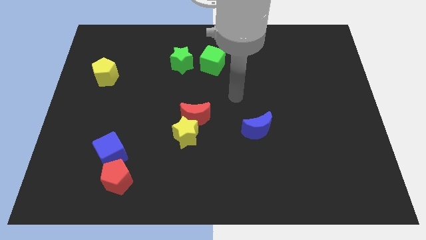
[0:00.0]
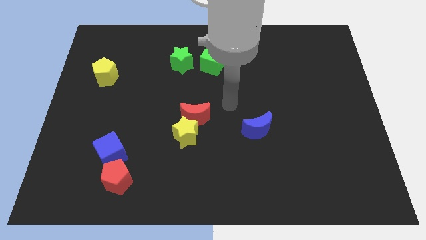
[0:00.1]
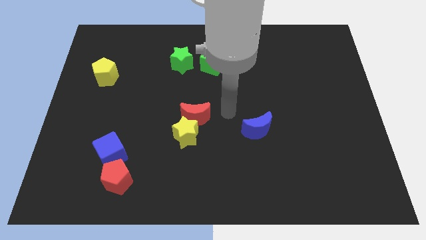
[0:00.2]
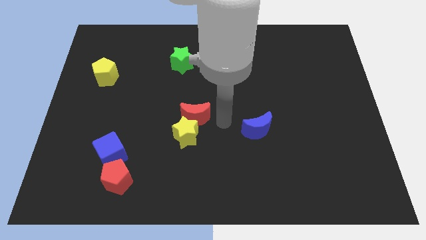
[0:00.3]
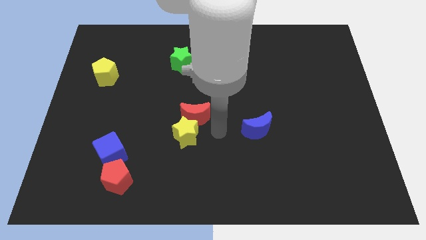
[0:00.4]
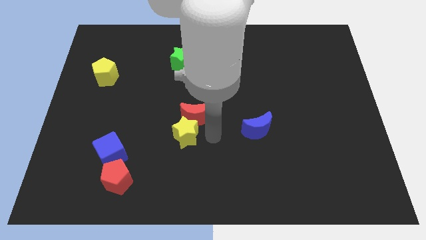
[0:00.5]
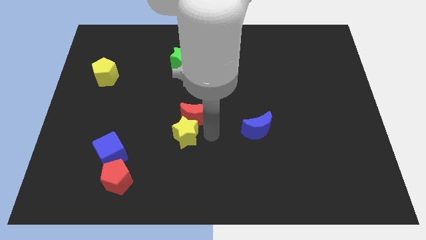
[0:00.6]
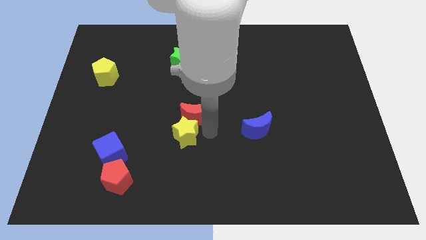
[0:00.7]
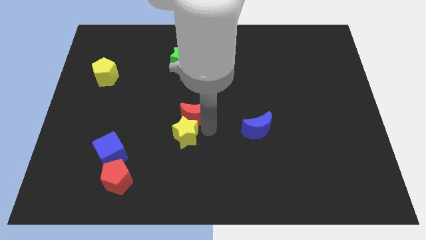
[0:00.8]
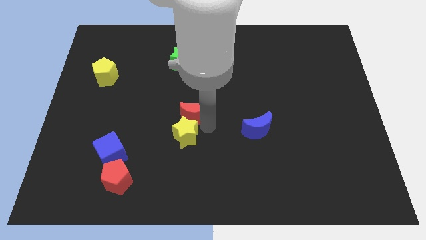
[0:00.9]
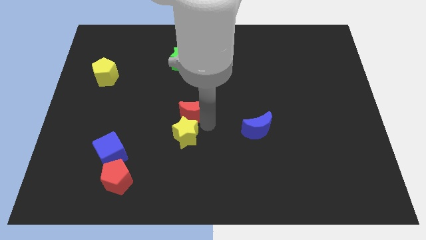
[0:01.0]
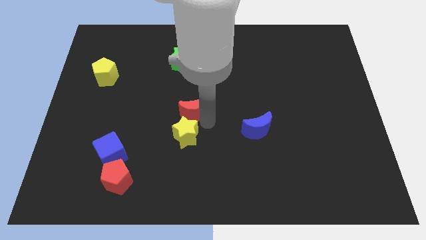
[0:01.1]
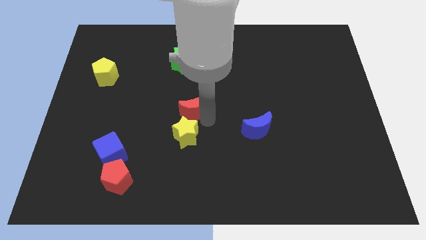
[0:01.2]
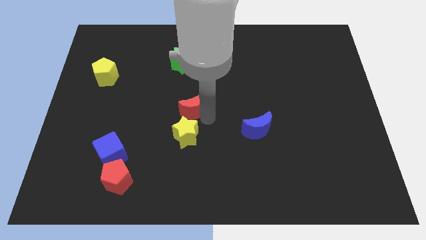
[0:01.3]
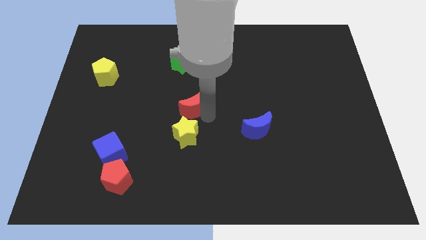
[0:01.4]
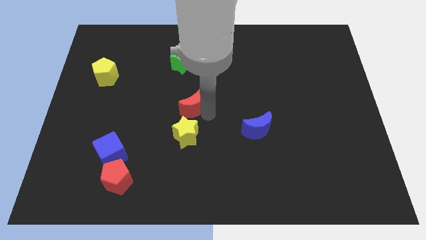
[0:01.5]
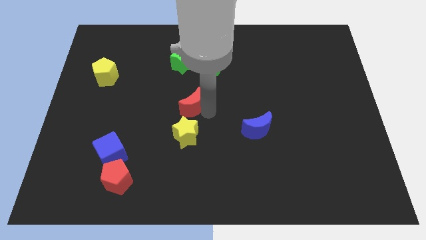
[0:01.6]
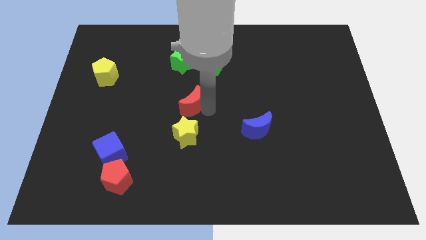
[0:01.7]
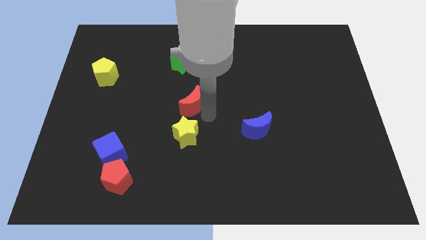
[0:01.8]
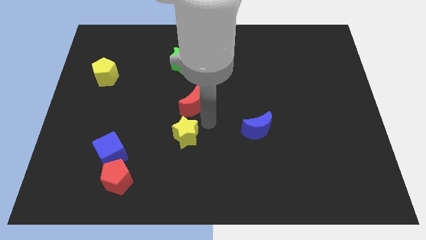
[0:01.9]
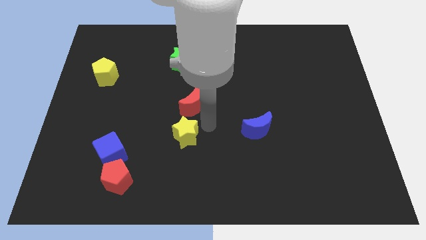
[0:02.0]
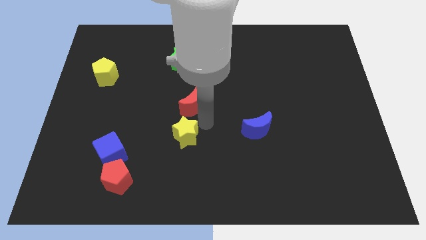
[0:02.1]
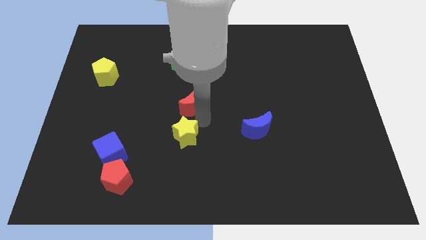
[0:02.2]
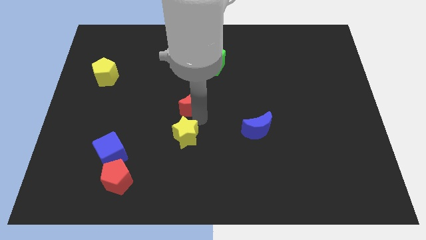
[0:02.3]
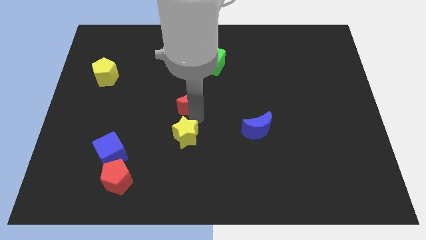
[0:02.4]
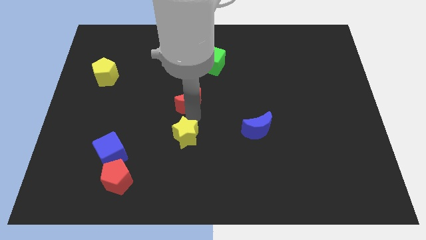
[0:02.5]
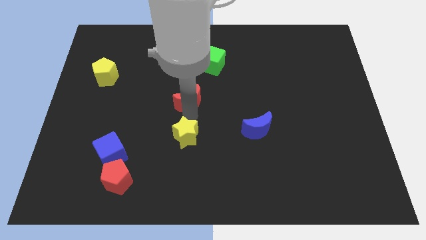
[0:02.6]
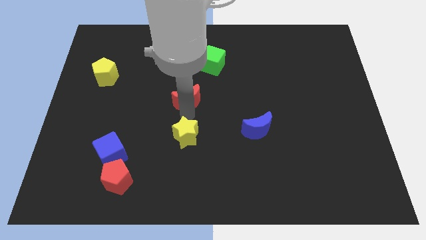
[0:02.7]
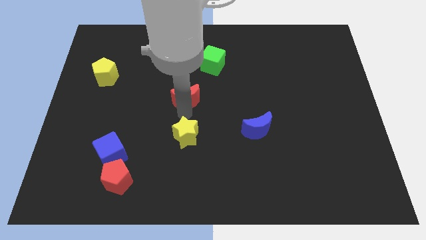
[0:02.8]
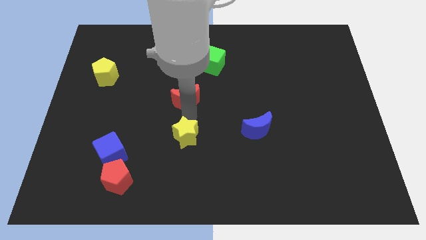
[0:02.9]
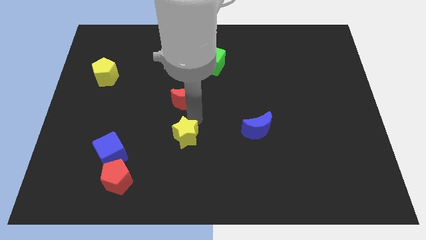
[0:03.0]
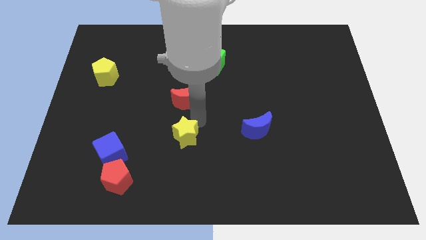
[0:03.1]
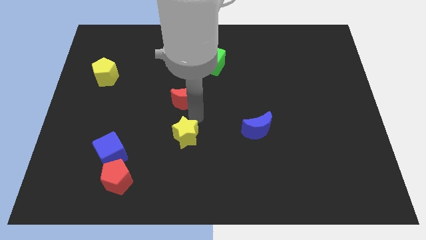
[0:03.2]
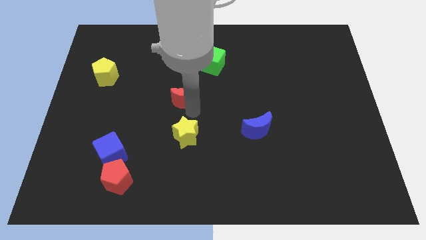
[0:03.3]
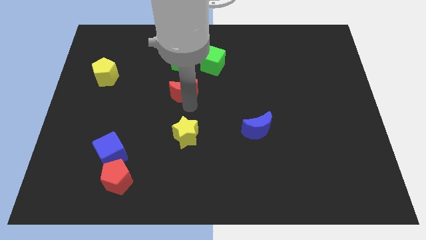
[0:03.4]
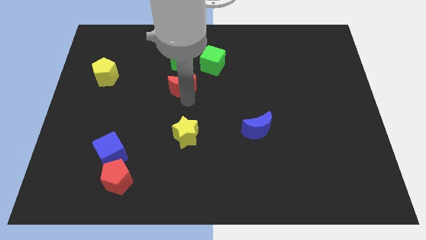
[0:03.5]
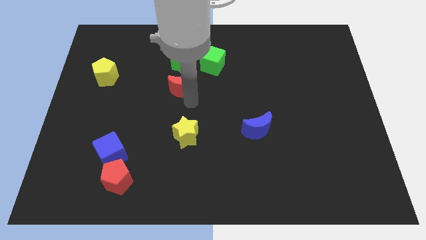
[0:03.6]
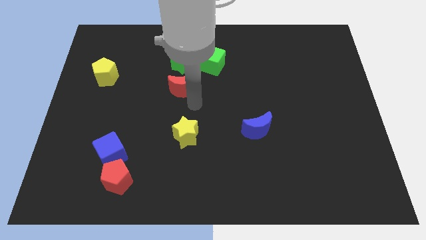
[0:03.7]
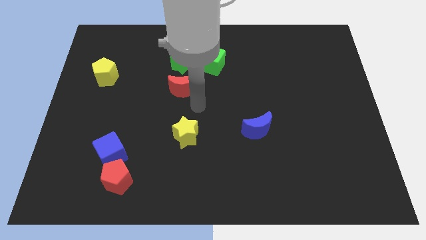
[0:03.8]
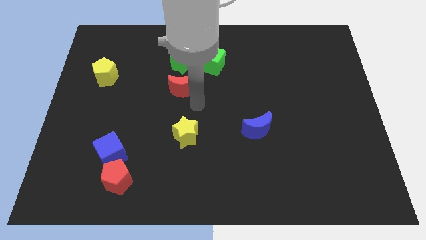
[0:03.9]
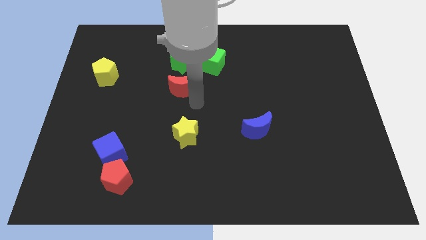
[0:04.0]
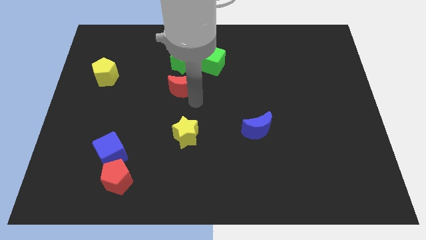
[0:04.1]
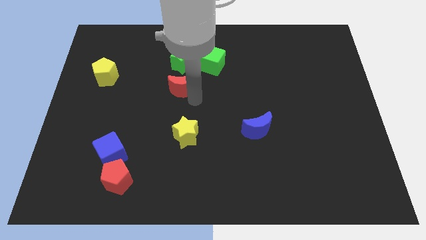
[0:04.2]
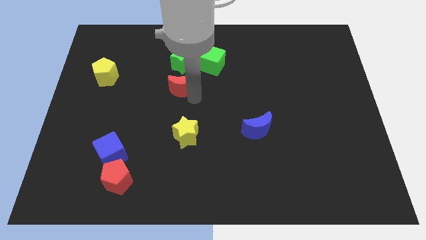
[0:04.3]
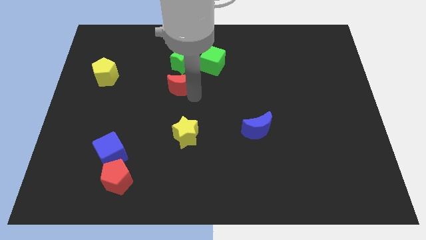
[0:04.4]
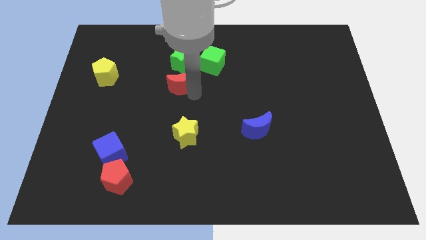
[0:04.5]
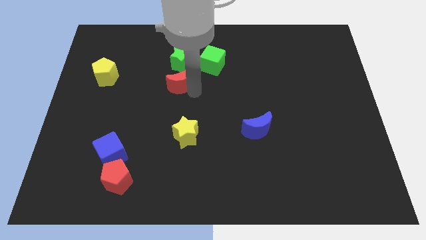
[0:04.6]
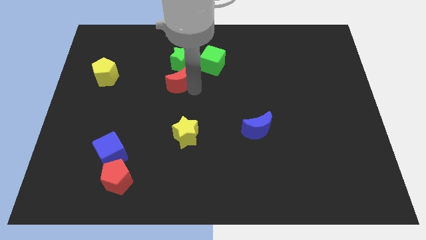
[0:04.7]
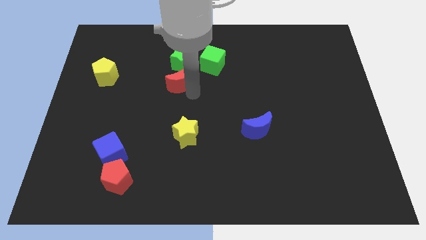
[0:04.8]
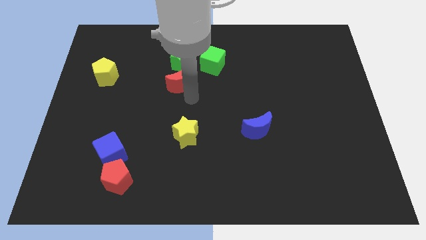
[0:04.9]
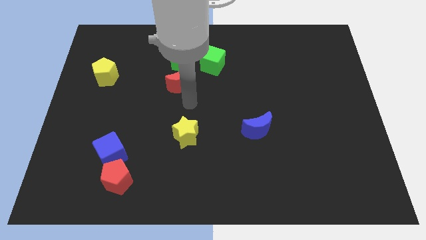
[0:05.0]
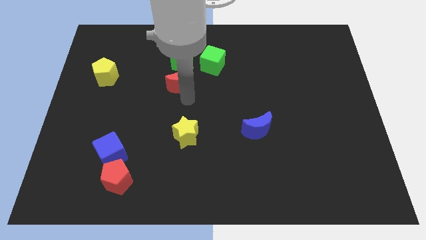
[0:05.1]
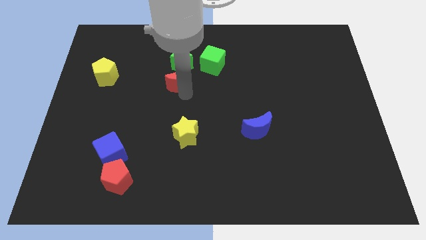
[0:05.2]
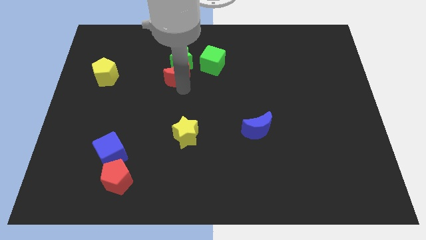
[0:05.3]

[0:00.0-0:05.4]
move the red moon just left of the green cube

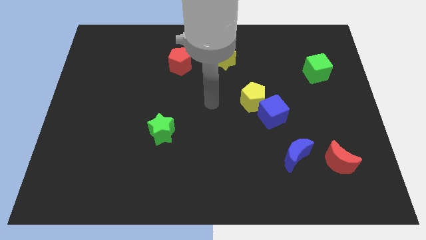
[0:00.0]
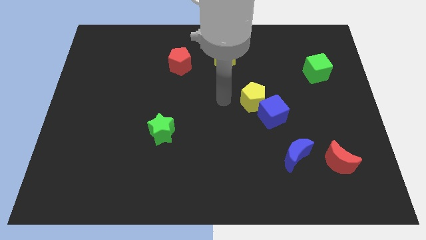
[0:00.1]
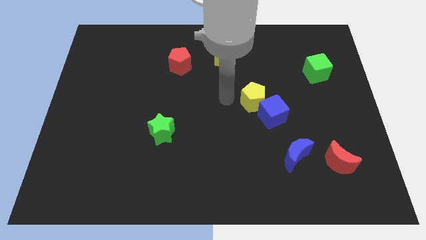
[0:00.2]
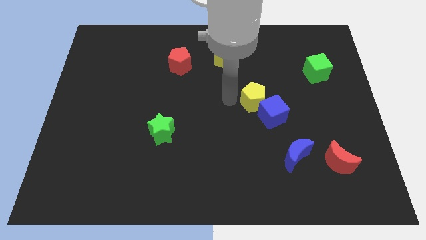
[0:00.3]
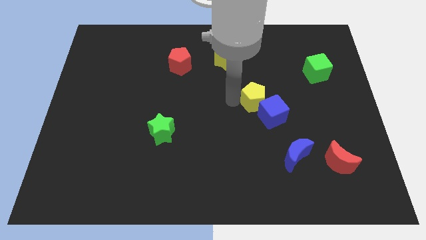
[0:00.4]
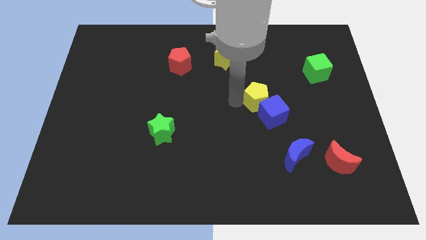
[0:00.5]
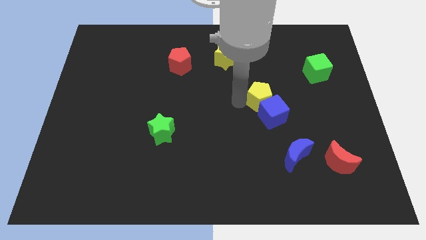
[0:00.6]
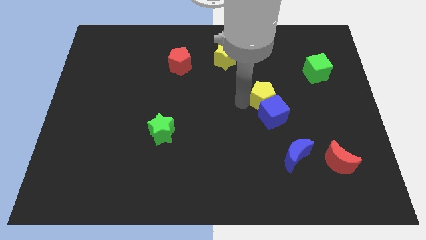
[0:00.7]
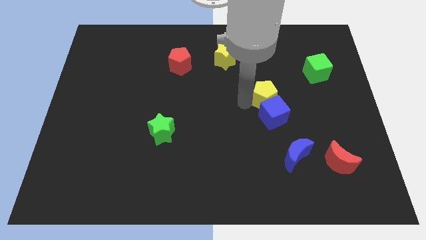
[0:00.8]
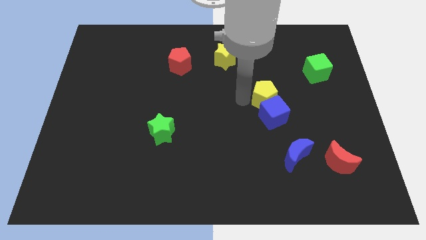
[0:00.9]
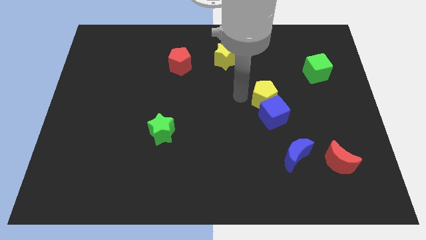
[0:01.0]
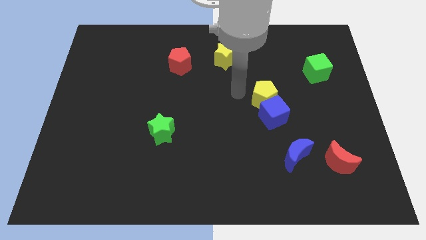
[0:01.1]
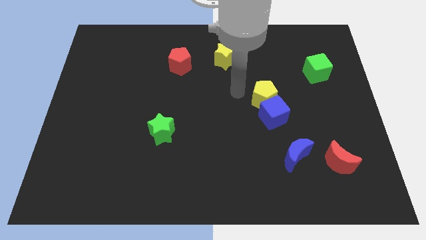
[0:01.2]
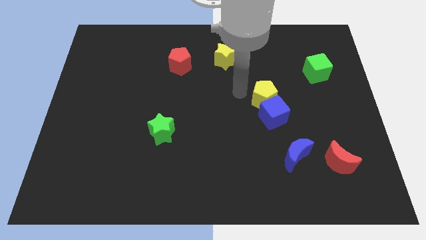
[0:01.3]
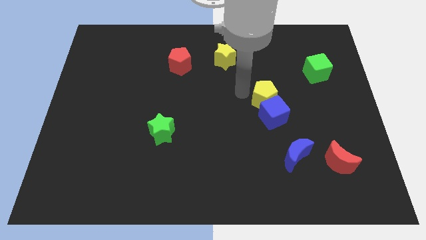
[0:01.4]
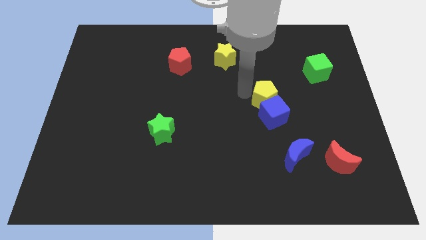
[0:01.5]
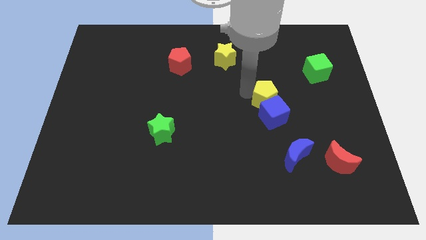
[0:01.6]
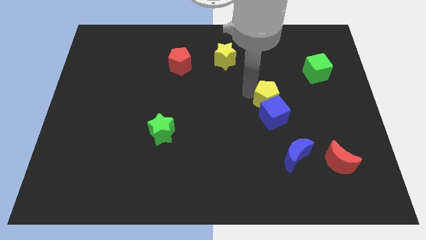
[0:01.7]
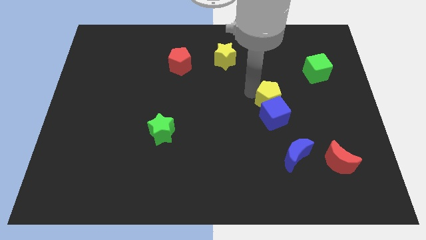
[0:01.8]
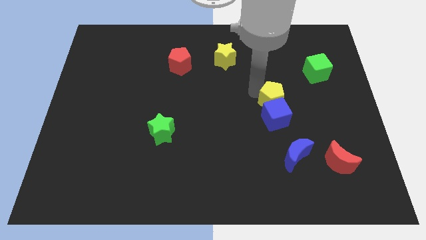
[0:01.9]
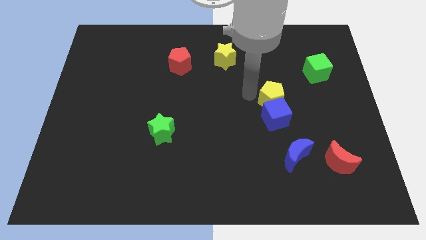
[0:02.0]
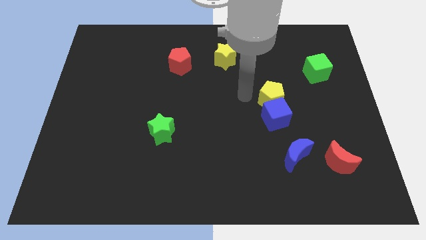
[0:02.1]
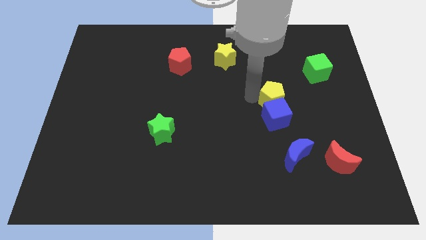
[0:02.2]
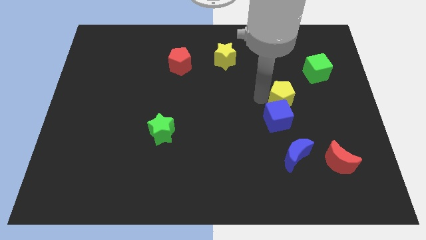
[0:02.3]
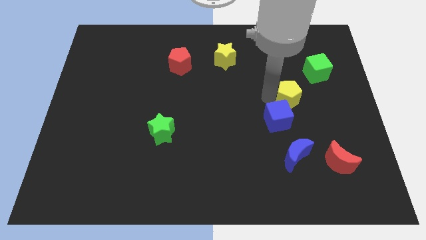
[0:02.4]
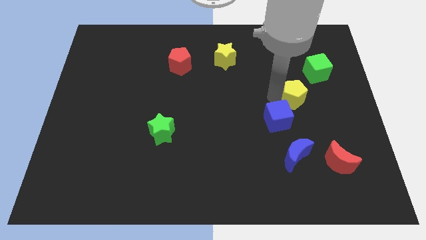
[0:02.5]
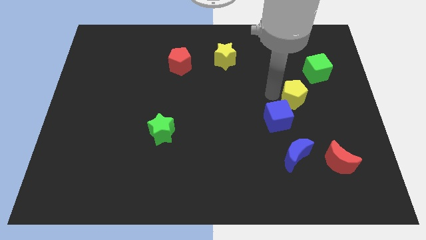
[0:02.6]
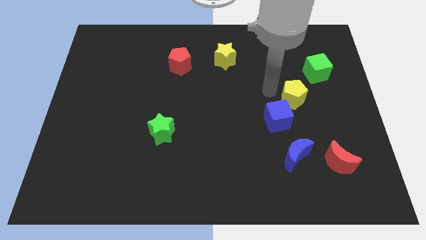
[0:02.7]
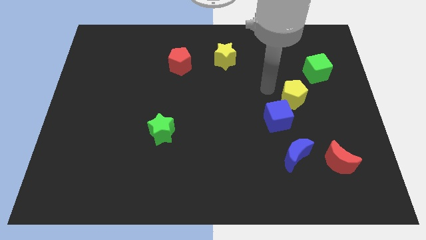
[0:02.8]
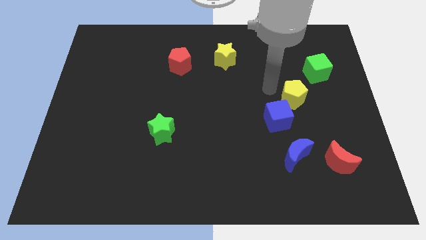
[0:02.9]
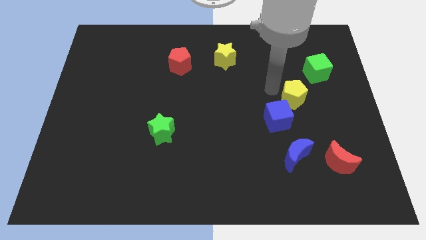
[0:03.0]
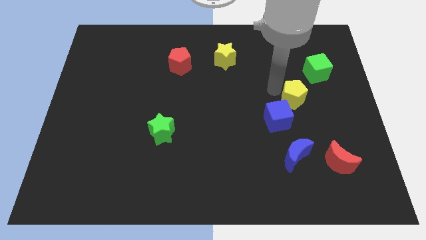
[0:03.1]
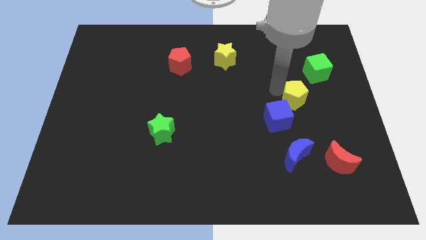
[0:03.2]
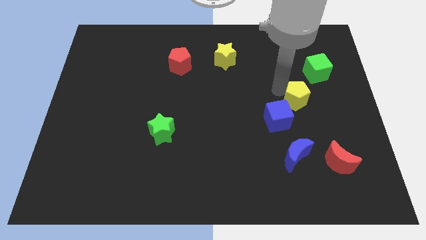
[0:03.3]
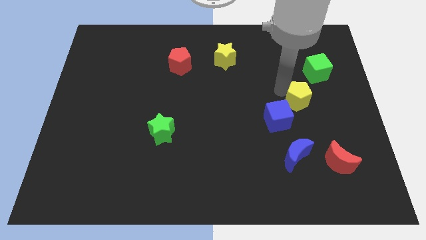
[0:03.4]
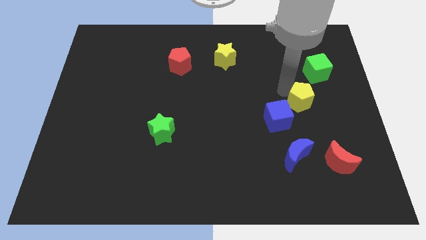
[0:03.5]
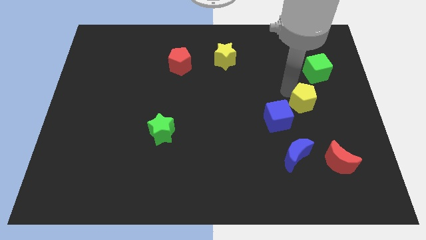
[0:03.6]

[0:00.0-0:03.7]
put the yellow pentagon to the bottom side of the green cube
